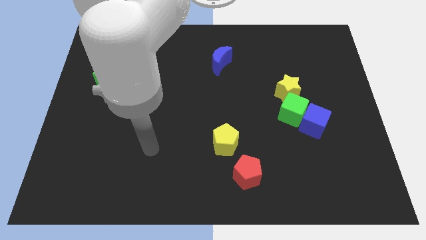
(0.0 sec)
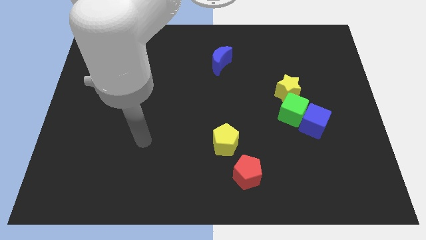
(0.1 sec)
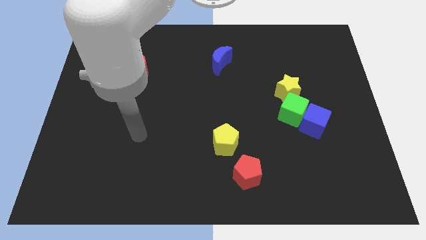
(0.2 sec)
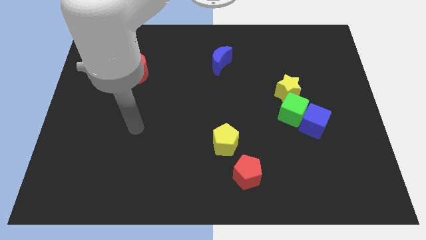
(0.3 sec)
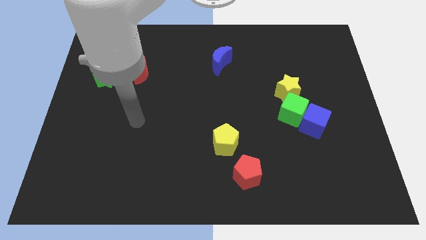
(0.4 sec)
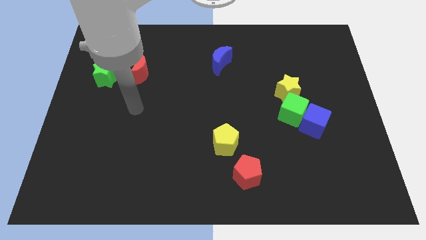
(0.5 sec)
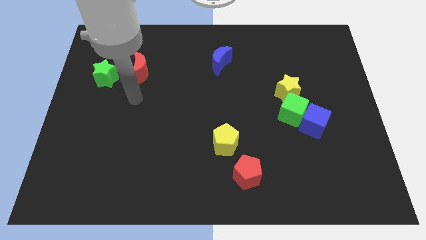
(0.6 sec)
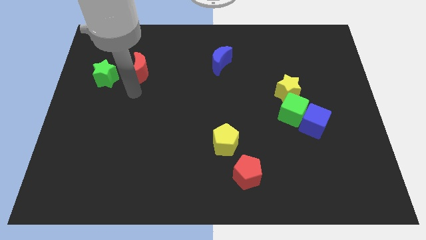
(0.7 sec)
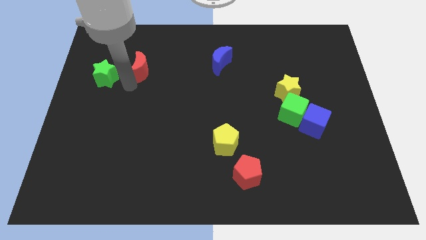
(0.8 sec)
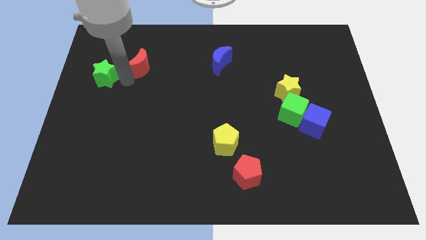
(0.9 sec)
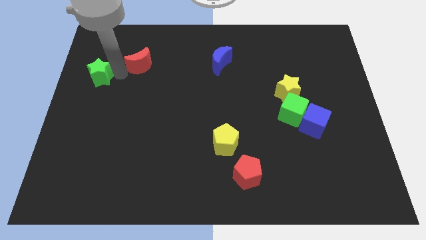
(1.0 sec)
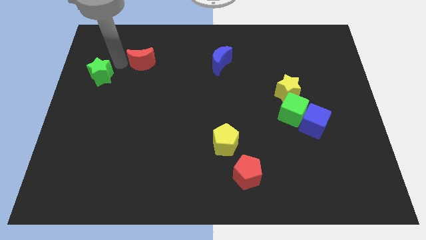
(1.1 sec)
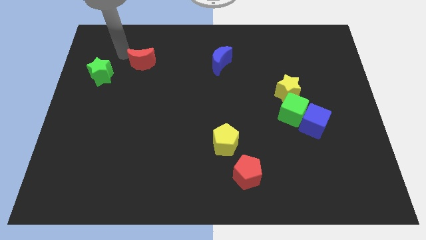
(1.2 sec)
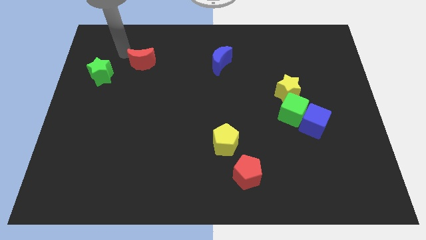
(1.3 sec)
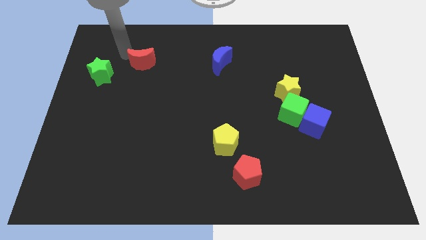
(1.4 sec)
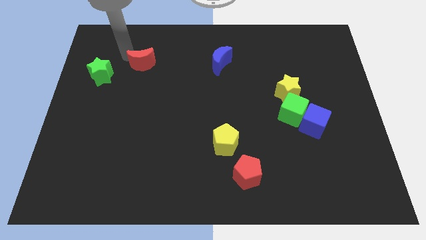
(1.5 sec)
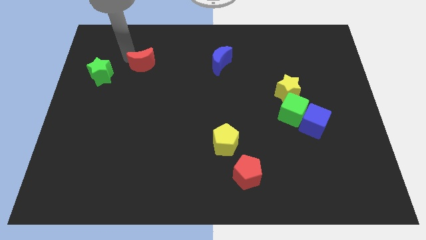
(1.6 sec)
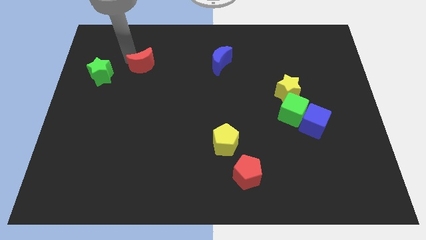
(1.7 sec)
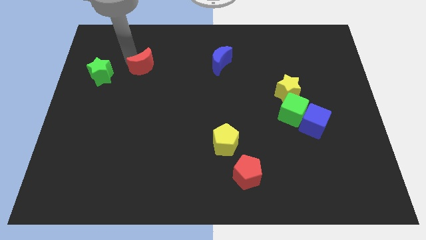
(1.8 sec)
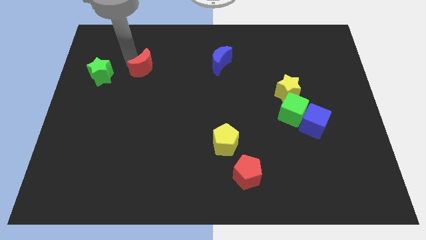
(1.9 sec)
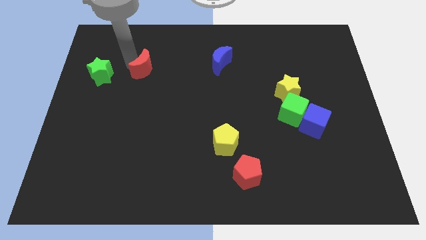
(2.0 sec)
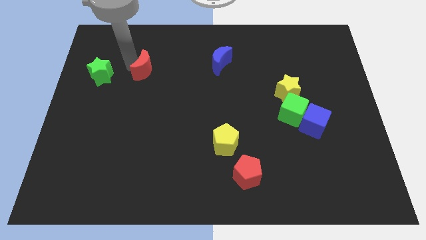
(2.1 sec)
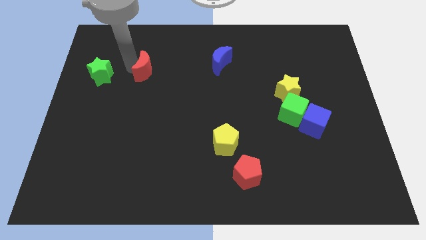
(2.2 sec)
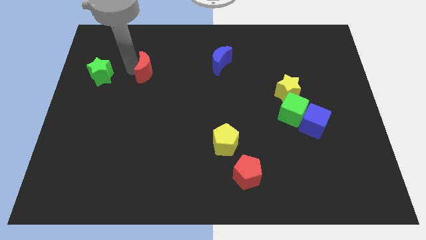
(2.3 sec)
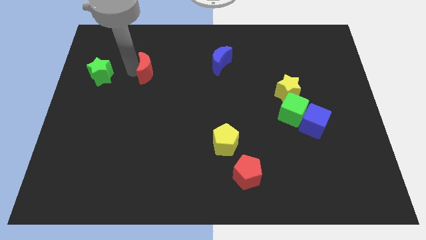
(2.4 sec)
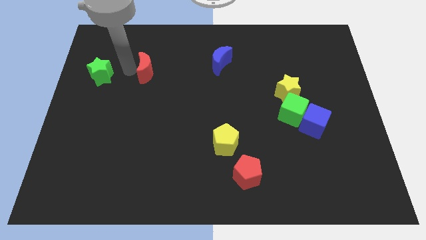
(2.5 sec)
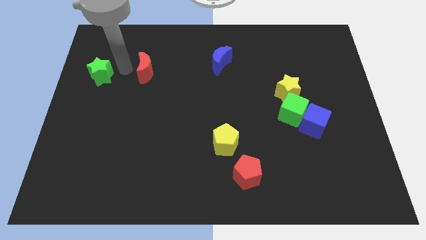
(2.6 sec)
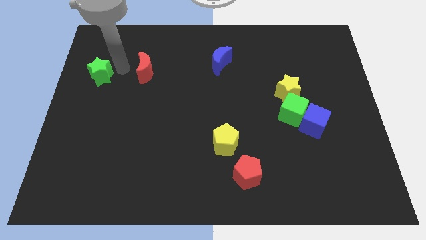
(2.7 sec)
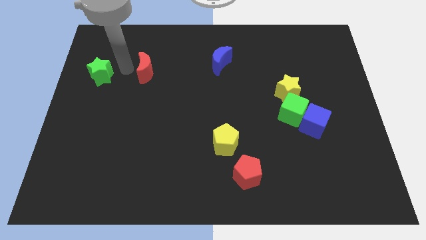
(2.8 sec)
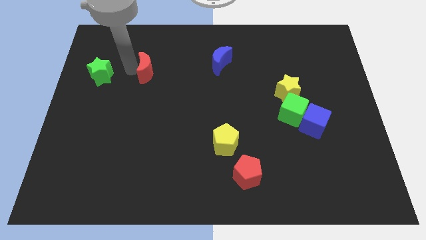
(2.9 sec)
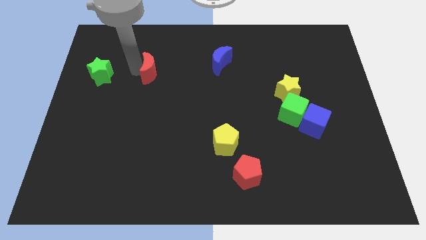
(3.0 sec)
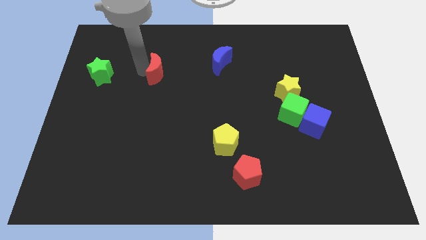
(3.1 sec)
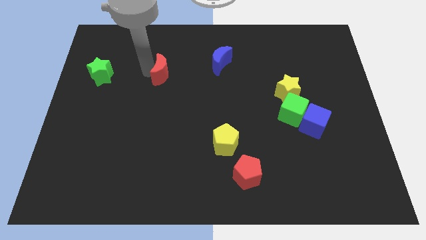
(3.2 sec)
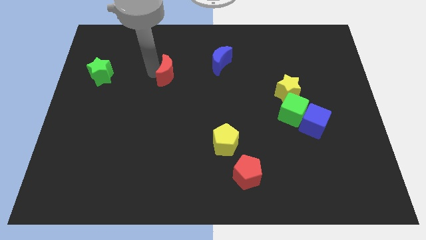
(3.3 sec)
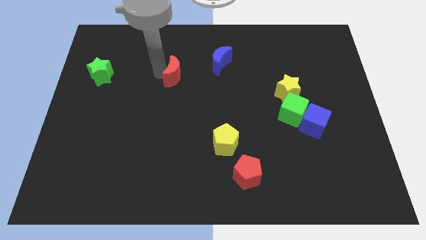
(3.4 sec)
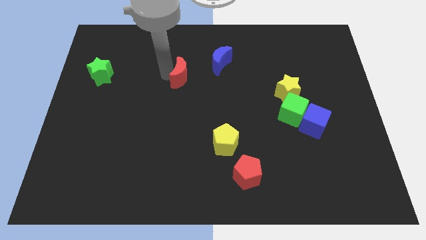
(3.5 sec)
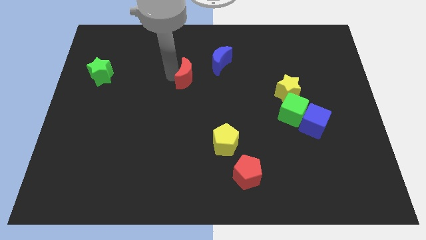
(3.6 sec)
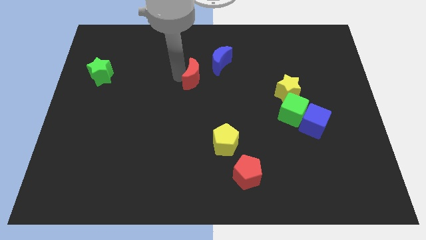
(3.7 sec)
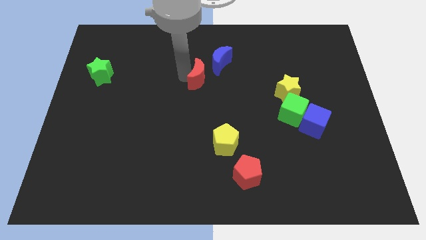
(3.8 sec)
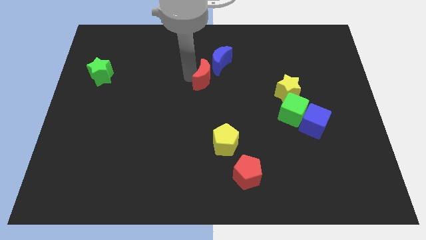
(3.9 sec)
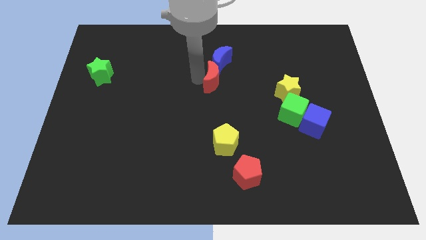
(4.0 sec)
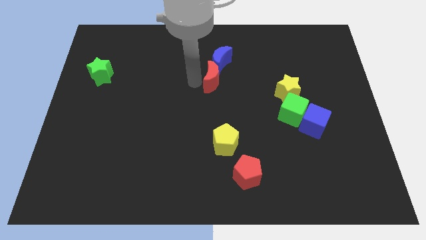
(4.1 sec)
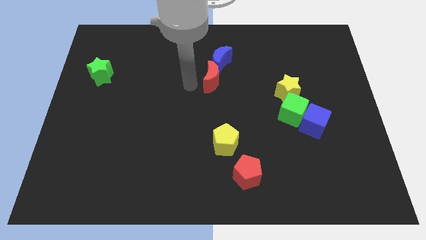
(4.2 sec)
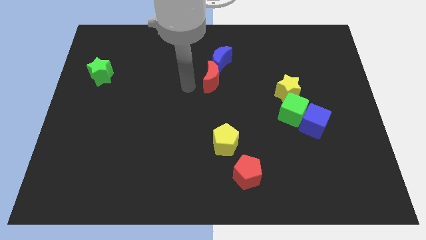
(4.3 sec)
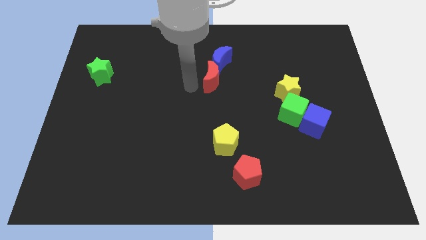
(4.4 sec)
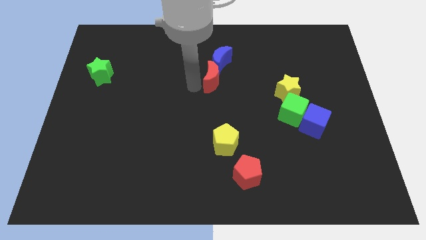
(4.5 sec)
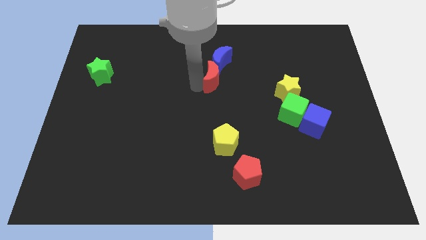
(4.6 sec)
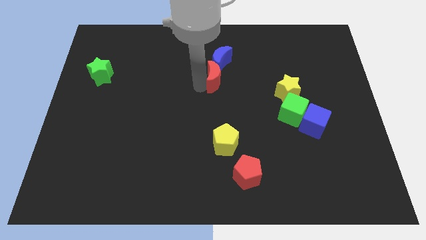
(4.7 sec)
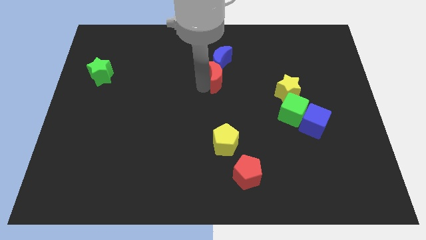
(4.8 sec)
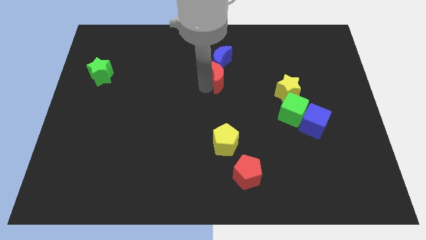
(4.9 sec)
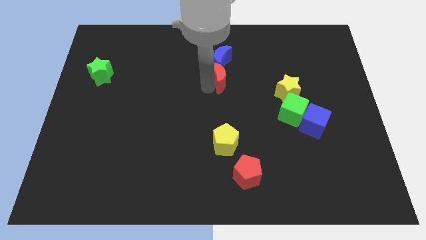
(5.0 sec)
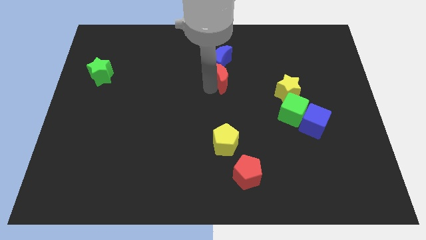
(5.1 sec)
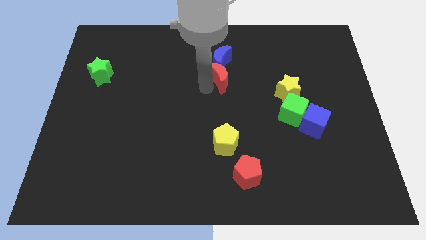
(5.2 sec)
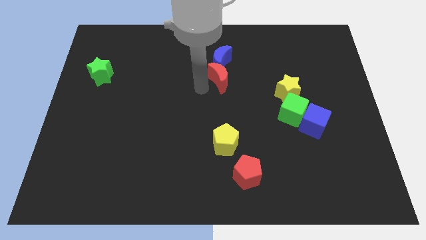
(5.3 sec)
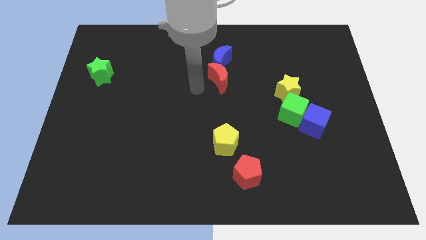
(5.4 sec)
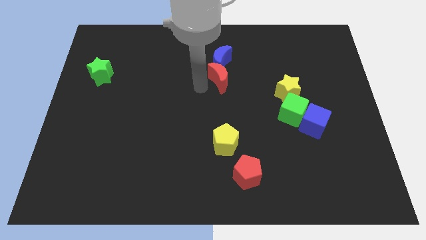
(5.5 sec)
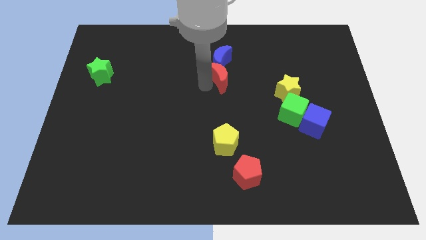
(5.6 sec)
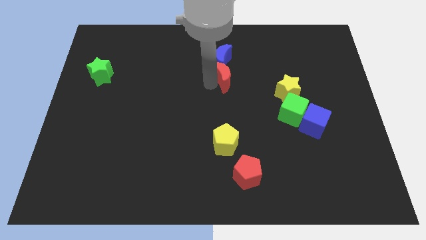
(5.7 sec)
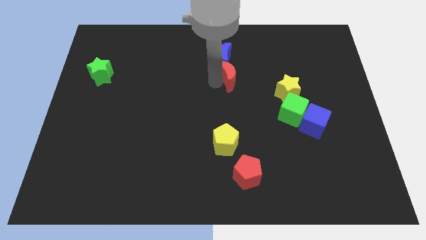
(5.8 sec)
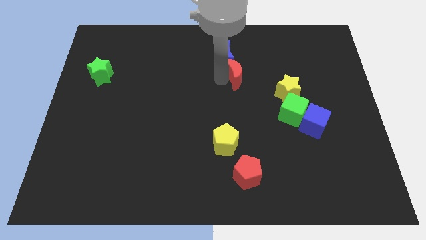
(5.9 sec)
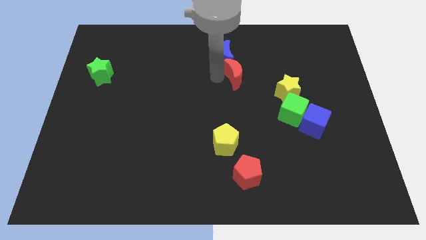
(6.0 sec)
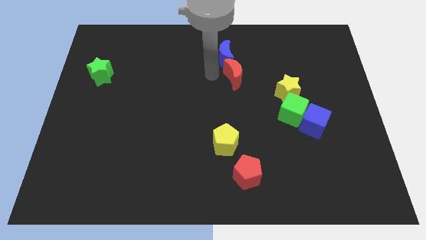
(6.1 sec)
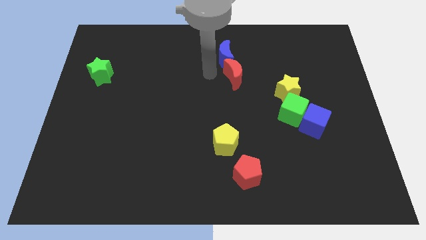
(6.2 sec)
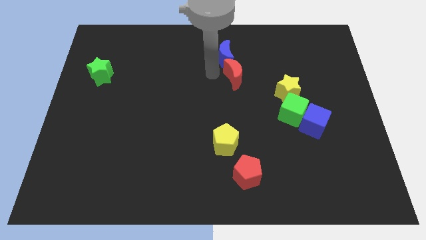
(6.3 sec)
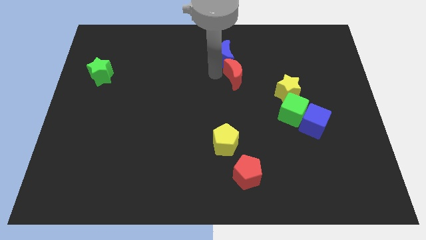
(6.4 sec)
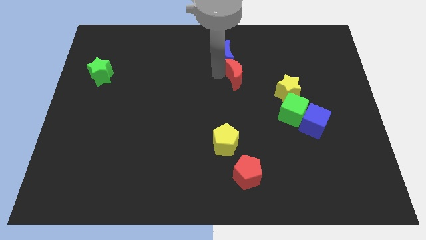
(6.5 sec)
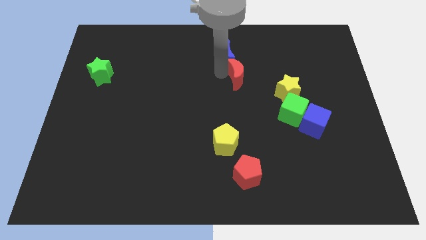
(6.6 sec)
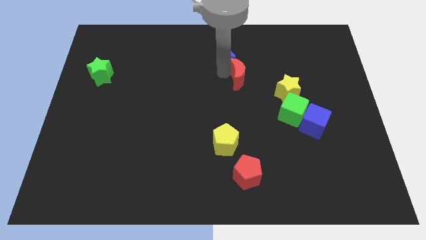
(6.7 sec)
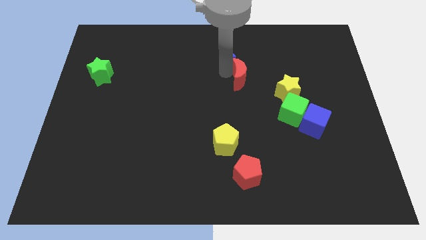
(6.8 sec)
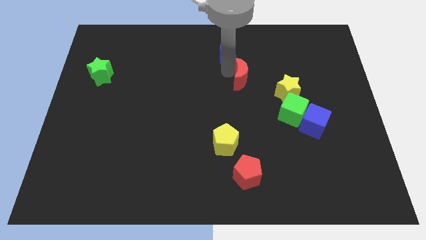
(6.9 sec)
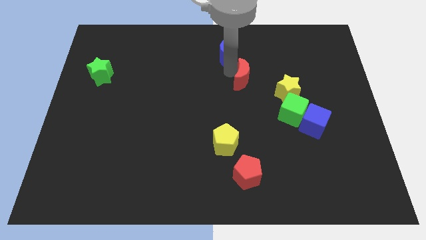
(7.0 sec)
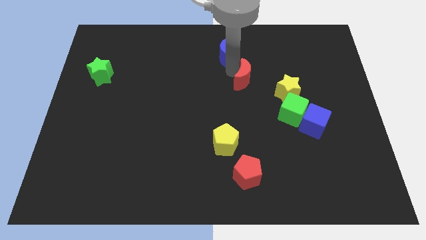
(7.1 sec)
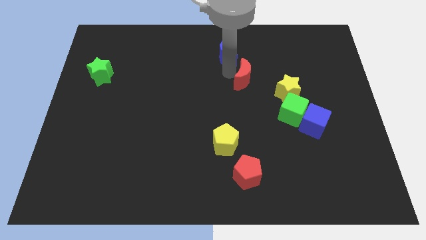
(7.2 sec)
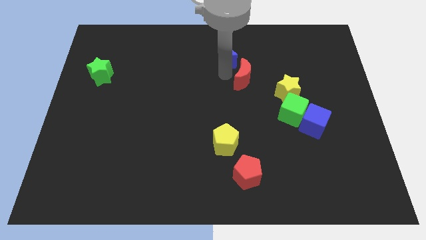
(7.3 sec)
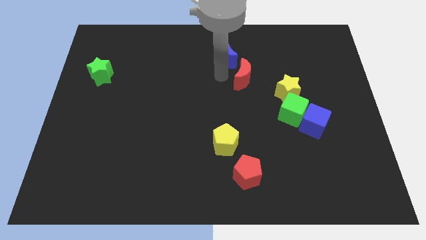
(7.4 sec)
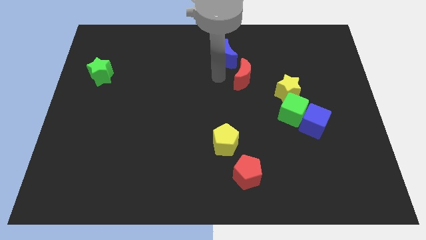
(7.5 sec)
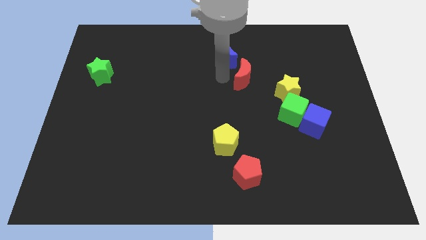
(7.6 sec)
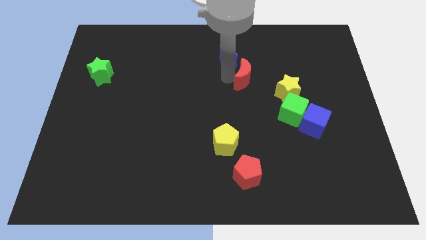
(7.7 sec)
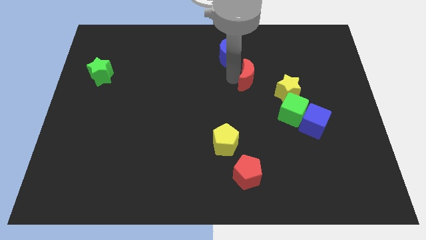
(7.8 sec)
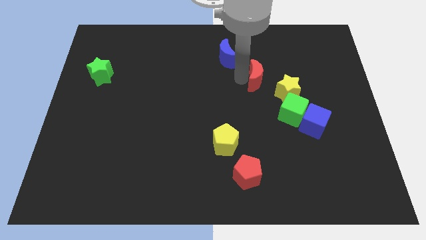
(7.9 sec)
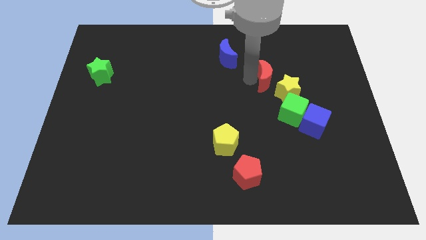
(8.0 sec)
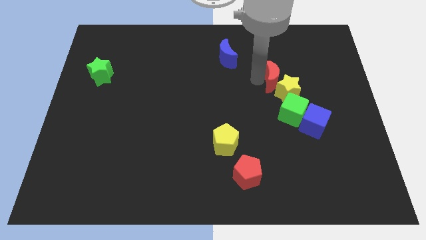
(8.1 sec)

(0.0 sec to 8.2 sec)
slide the red moon above the green cube
